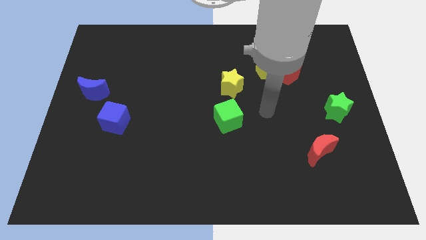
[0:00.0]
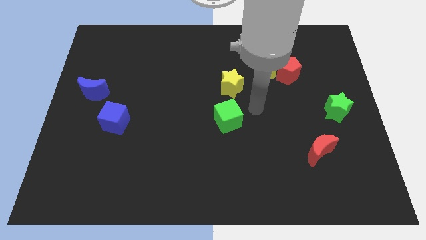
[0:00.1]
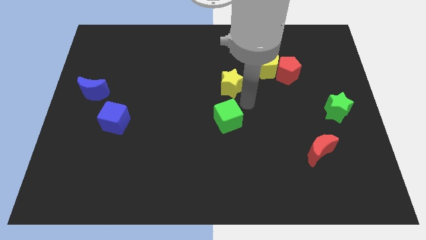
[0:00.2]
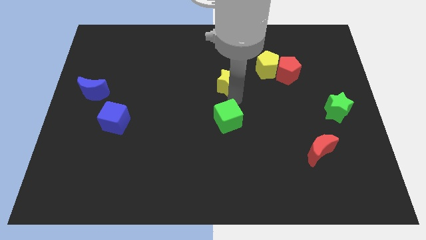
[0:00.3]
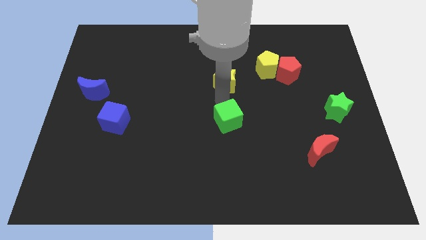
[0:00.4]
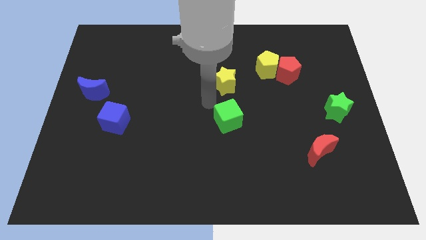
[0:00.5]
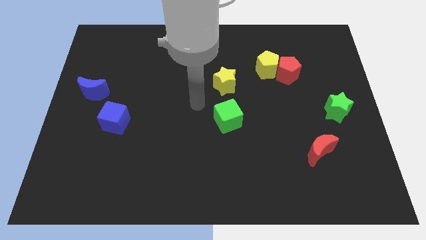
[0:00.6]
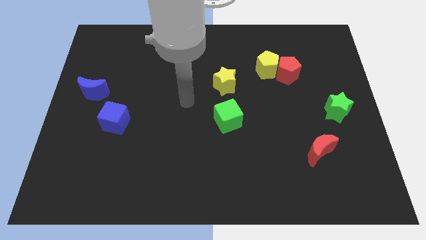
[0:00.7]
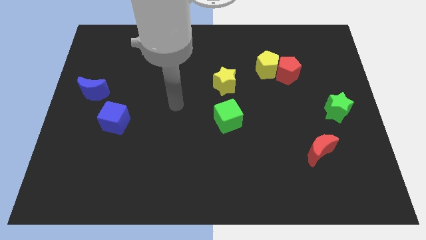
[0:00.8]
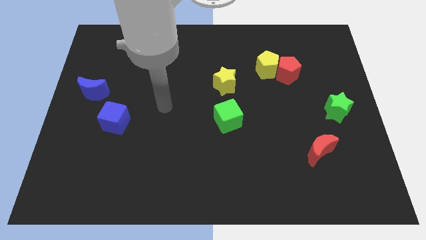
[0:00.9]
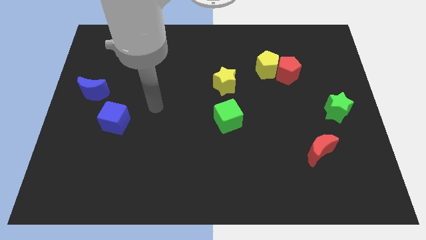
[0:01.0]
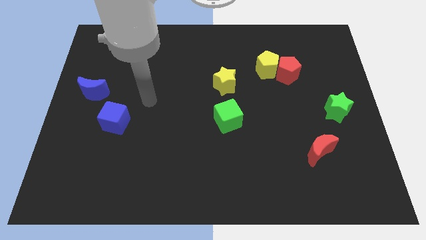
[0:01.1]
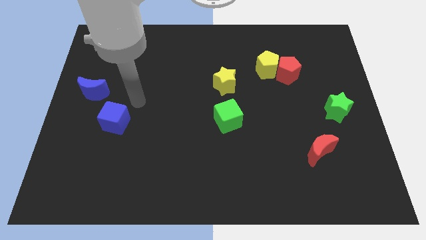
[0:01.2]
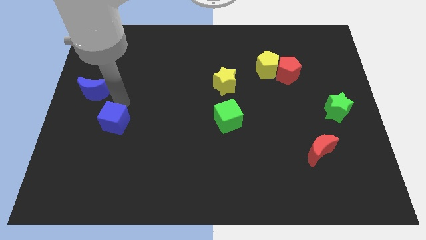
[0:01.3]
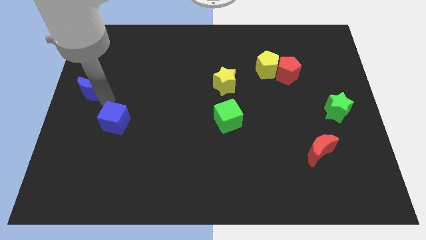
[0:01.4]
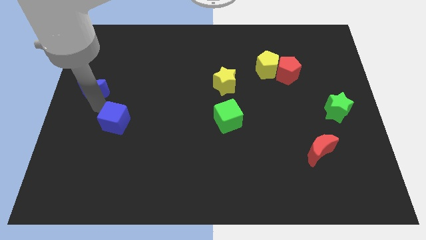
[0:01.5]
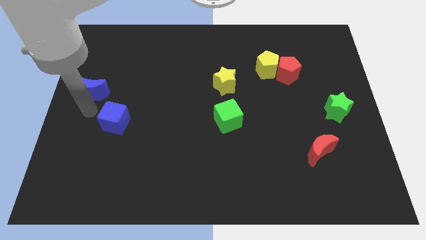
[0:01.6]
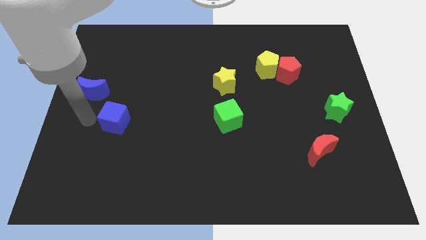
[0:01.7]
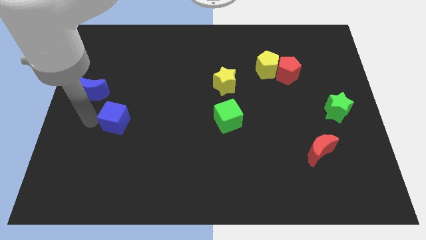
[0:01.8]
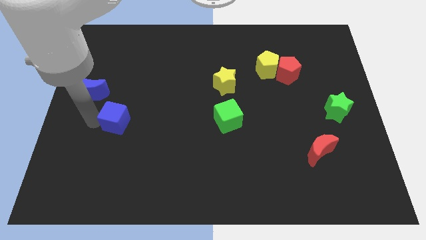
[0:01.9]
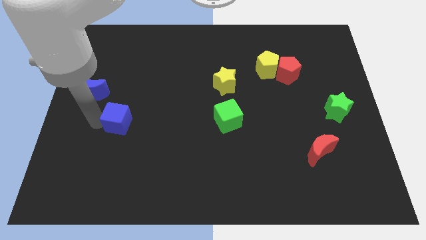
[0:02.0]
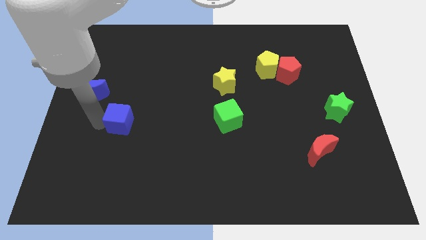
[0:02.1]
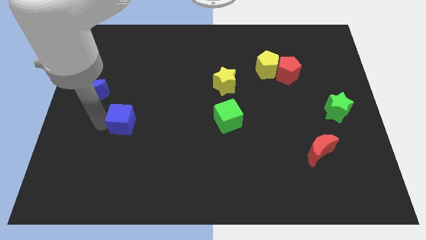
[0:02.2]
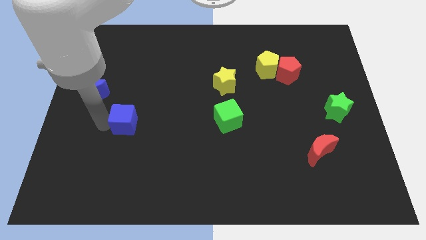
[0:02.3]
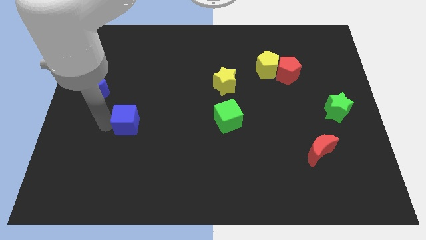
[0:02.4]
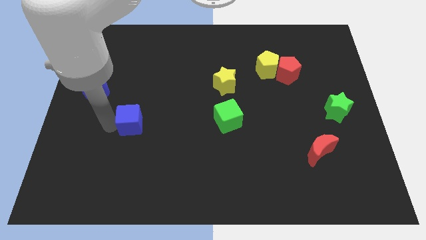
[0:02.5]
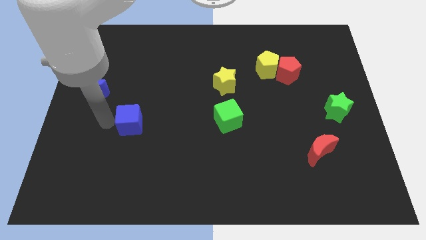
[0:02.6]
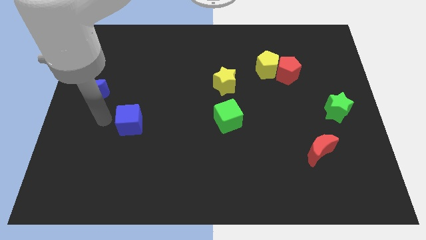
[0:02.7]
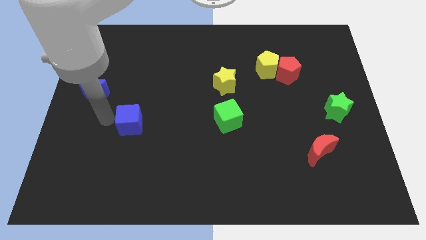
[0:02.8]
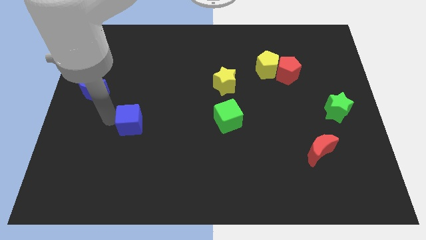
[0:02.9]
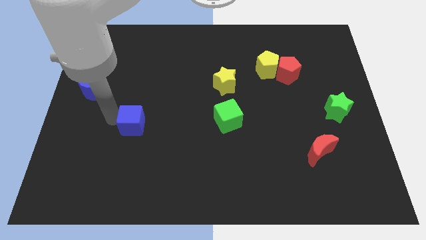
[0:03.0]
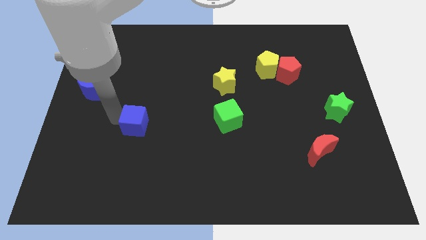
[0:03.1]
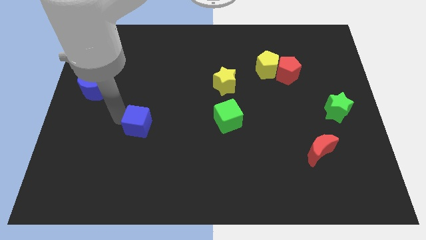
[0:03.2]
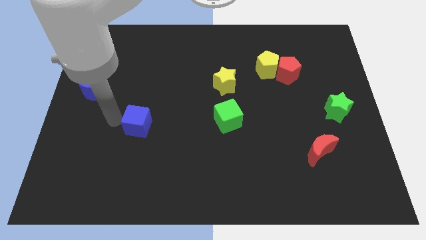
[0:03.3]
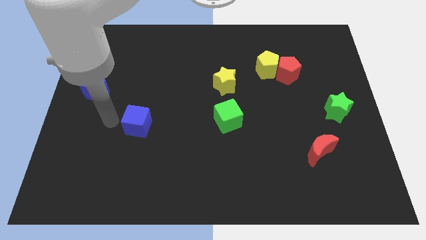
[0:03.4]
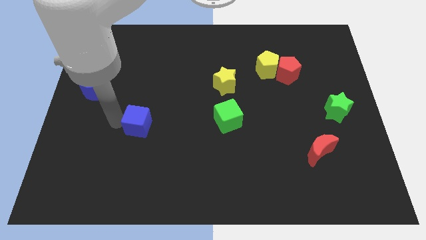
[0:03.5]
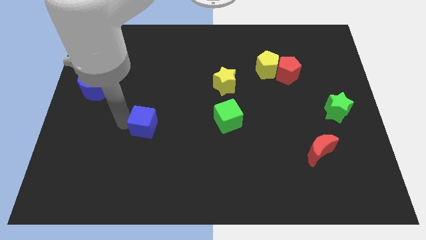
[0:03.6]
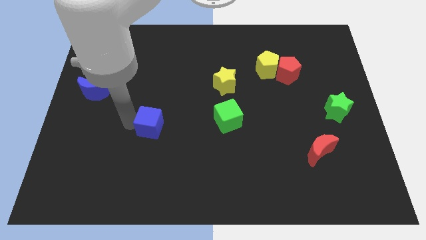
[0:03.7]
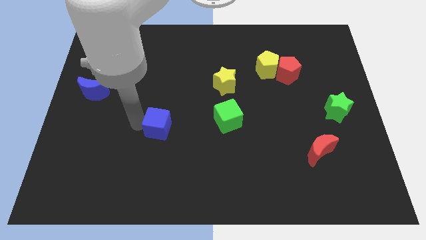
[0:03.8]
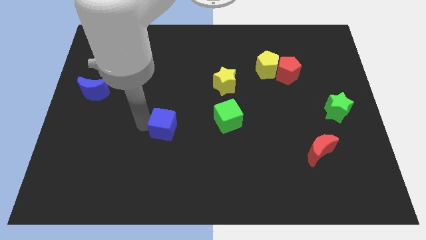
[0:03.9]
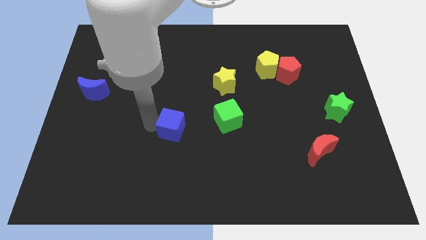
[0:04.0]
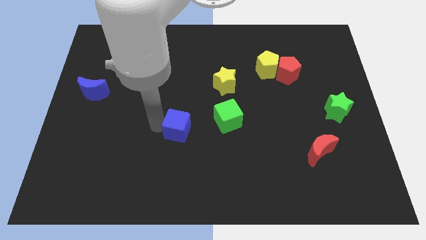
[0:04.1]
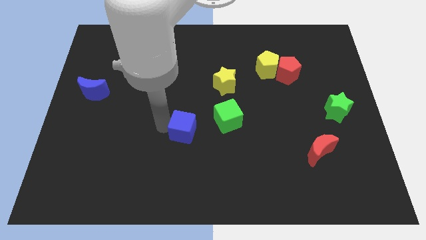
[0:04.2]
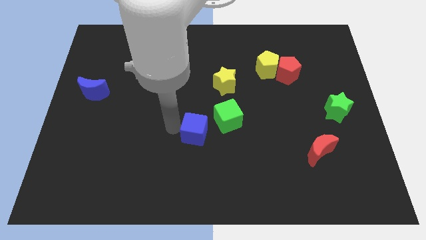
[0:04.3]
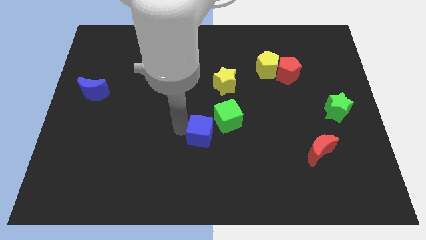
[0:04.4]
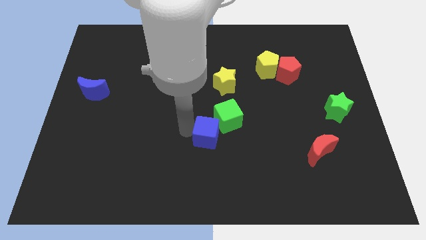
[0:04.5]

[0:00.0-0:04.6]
move the blue cube to the right

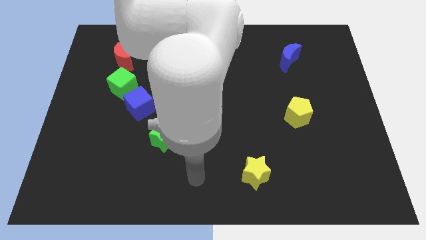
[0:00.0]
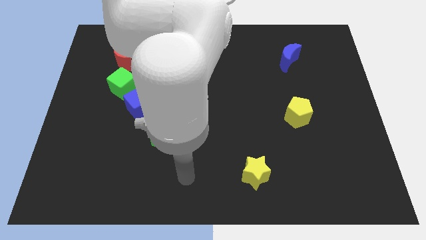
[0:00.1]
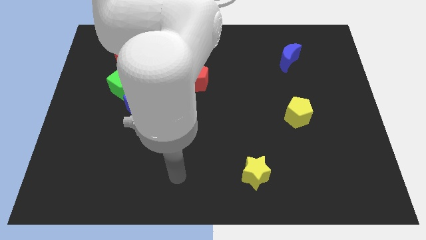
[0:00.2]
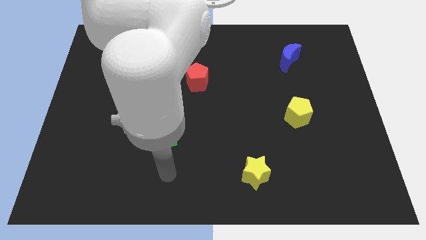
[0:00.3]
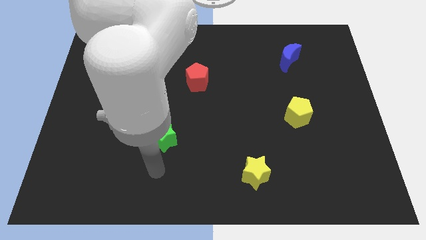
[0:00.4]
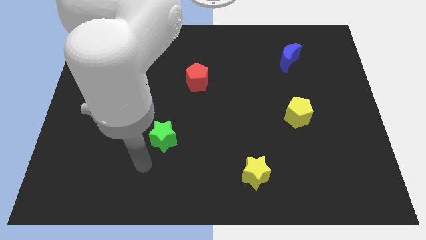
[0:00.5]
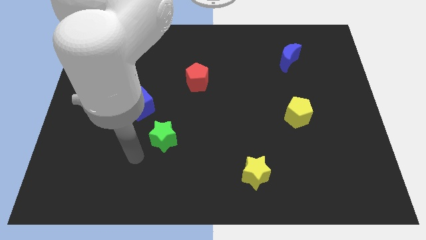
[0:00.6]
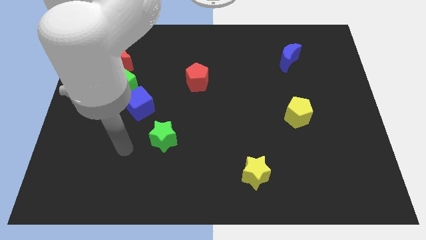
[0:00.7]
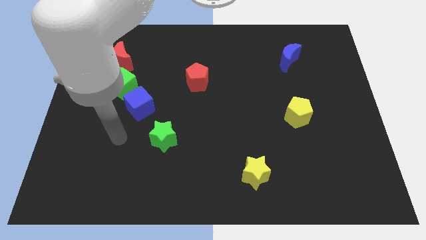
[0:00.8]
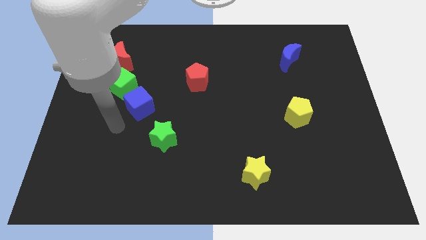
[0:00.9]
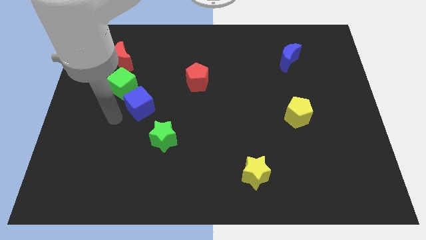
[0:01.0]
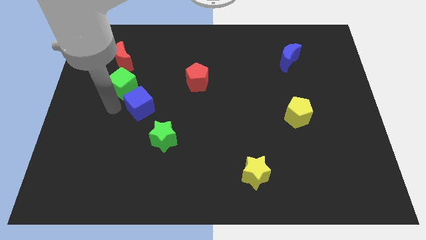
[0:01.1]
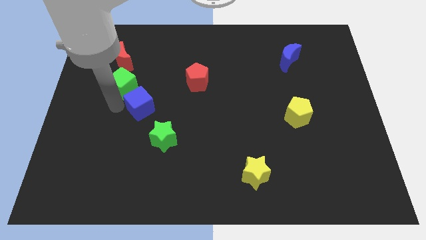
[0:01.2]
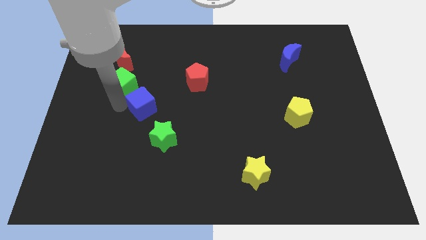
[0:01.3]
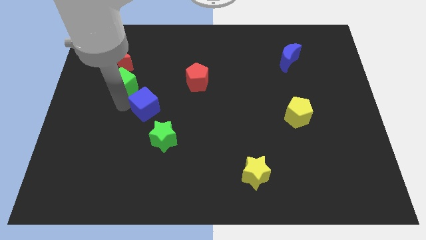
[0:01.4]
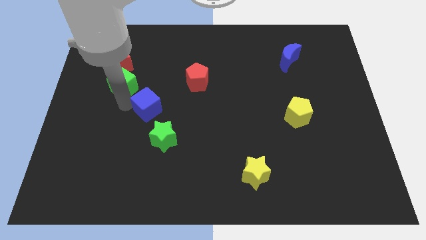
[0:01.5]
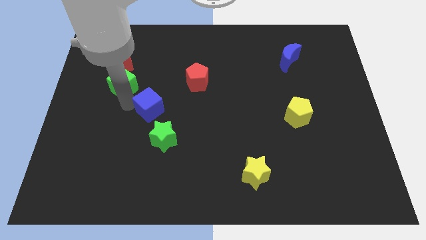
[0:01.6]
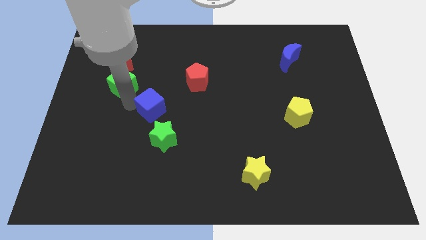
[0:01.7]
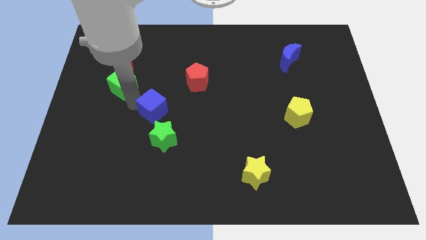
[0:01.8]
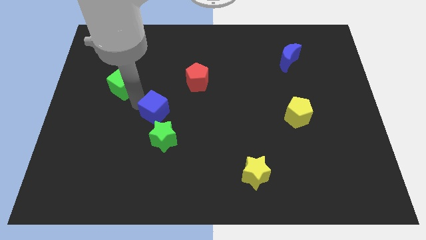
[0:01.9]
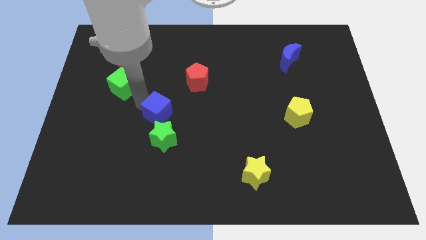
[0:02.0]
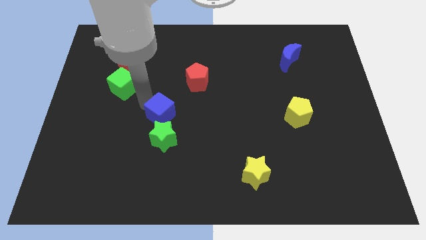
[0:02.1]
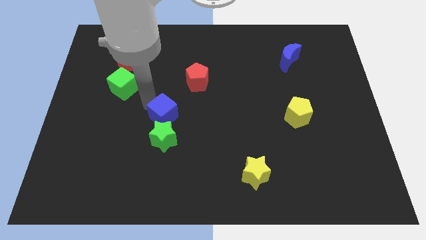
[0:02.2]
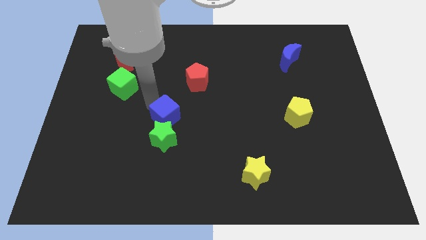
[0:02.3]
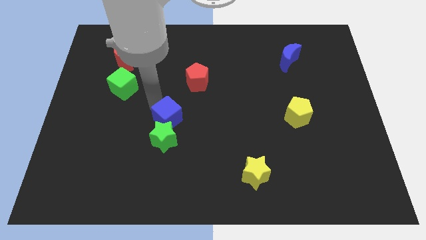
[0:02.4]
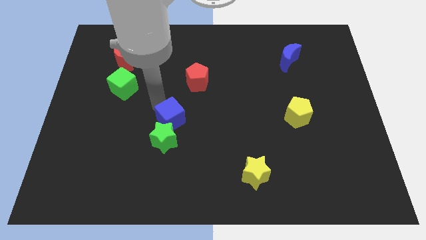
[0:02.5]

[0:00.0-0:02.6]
slightly move the blue cube right

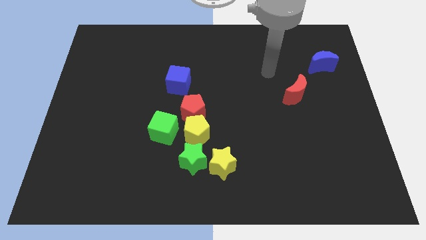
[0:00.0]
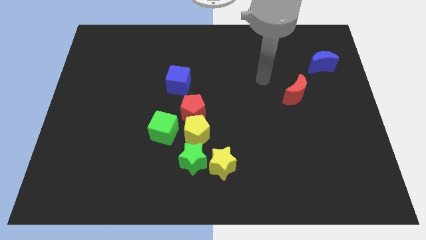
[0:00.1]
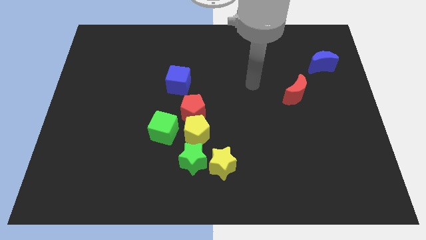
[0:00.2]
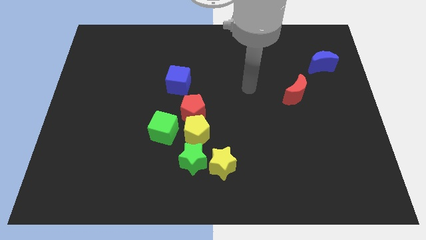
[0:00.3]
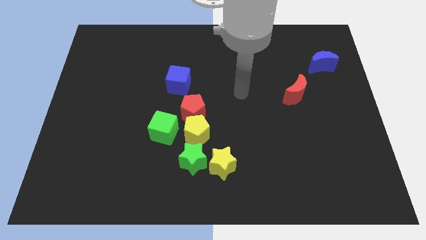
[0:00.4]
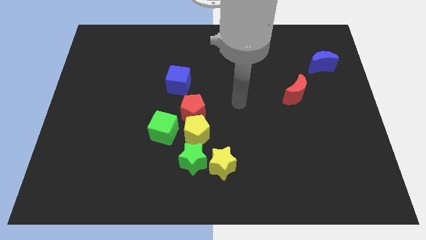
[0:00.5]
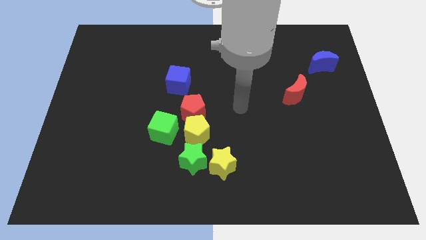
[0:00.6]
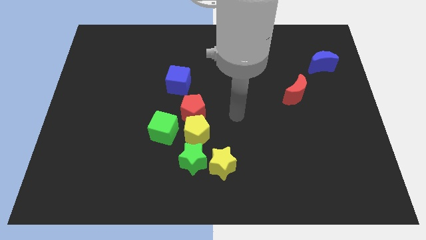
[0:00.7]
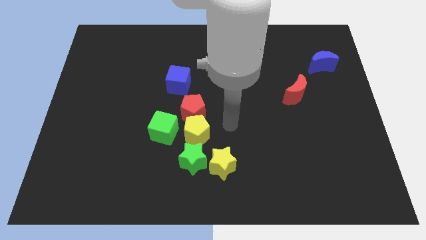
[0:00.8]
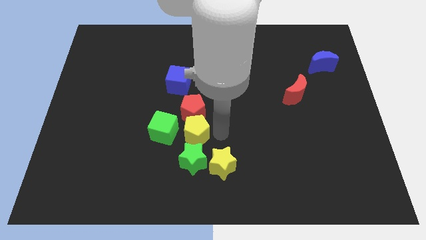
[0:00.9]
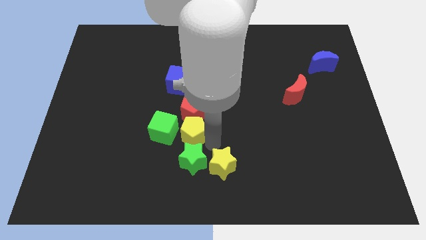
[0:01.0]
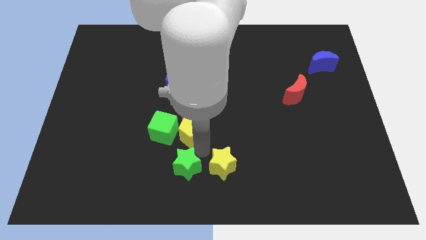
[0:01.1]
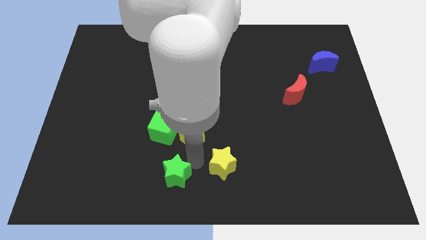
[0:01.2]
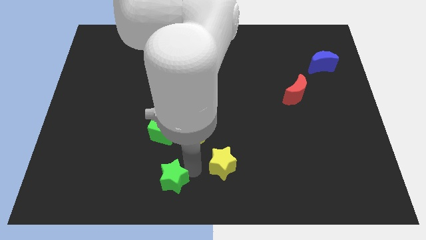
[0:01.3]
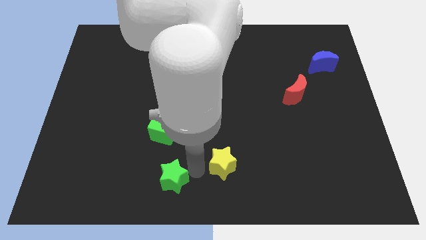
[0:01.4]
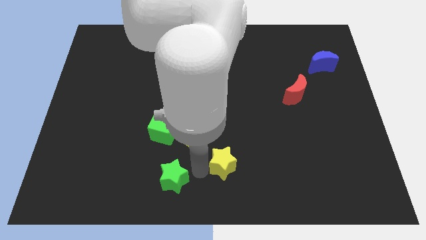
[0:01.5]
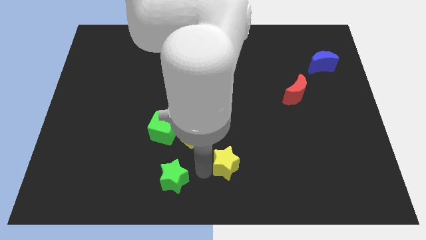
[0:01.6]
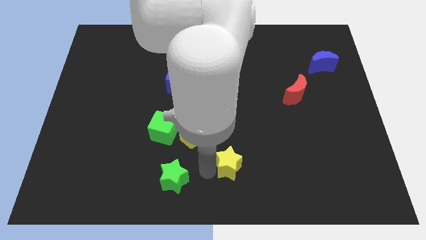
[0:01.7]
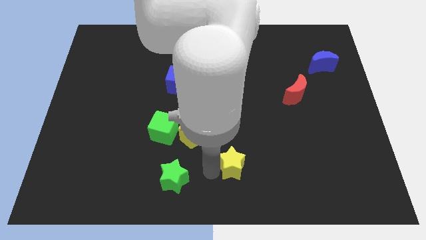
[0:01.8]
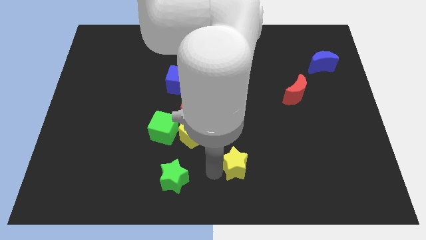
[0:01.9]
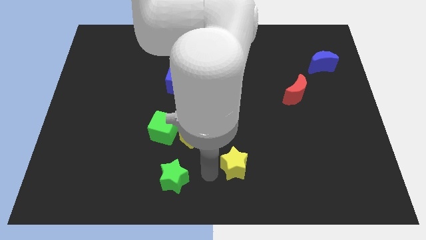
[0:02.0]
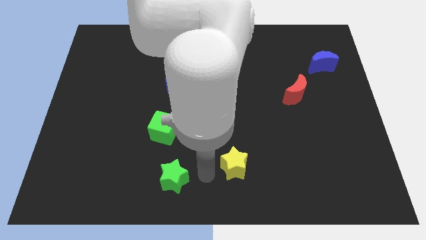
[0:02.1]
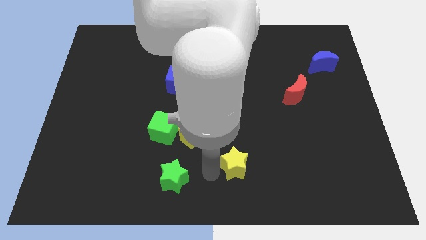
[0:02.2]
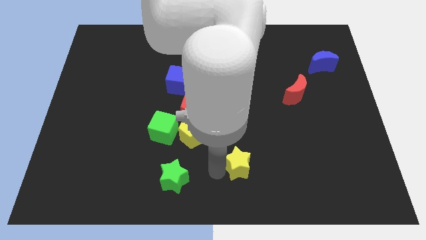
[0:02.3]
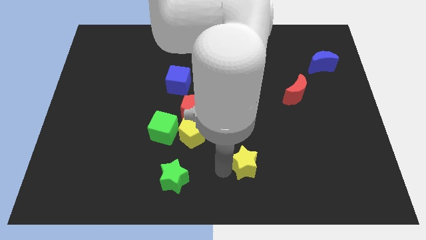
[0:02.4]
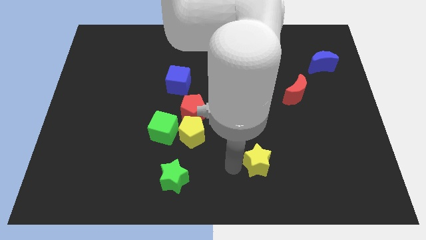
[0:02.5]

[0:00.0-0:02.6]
move the yellow star a little to the right
